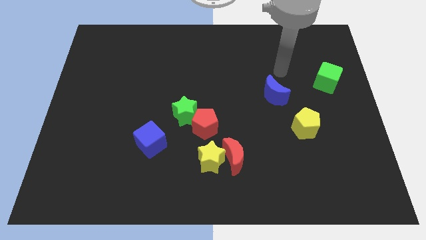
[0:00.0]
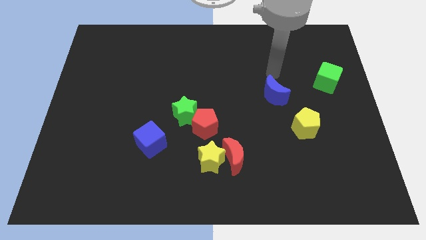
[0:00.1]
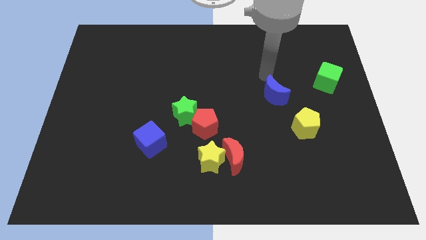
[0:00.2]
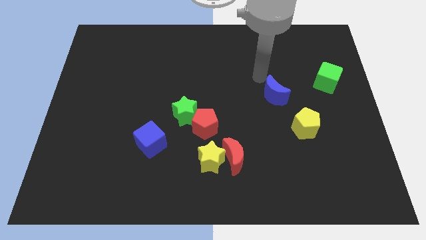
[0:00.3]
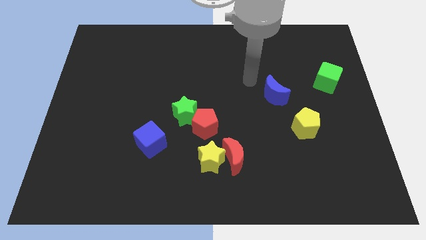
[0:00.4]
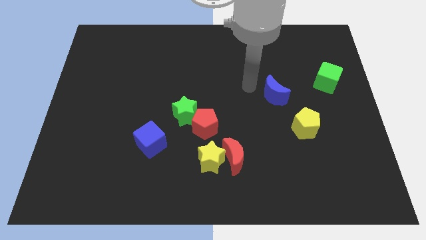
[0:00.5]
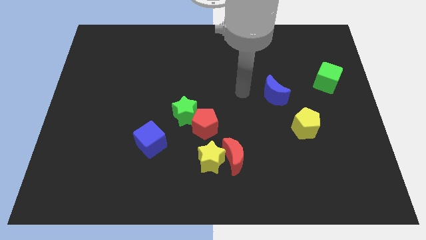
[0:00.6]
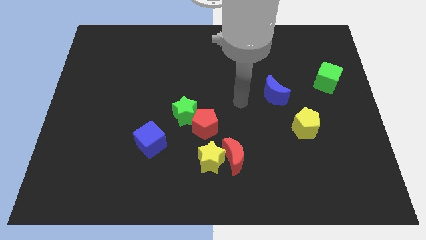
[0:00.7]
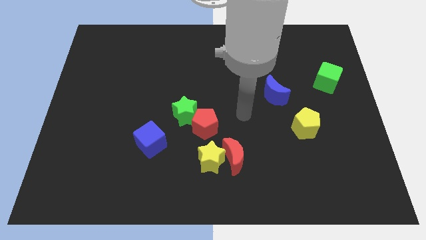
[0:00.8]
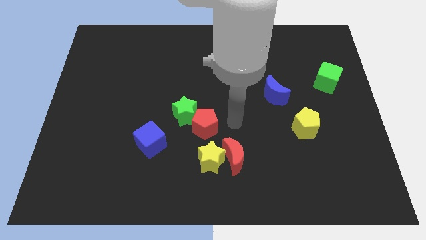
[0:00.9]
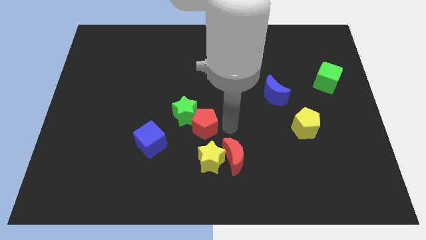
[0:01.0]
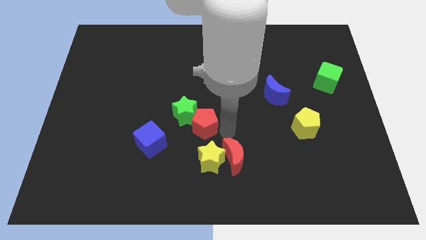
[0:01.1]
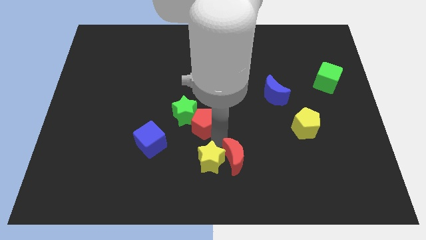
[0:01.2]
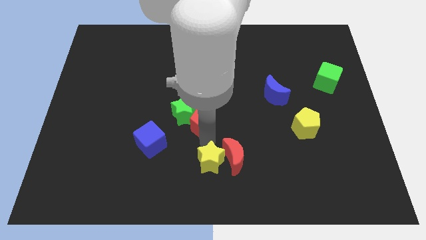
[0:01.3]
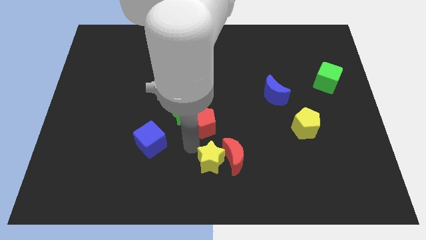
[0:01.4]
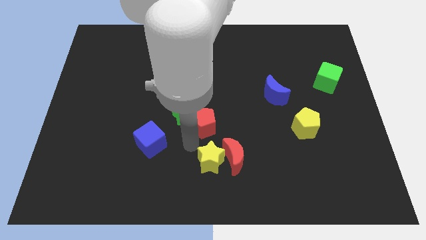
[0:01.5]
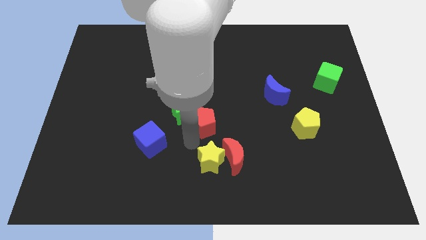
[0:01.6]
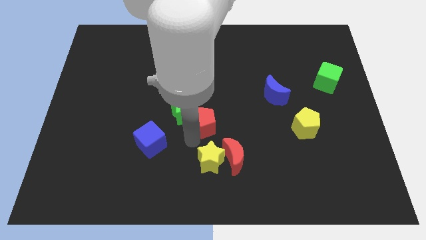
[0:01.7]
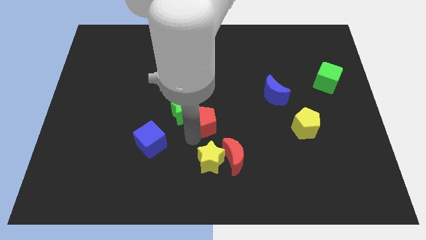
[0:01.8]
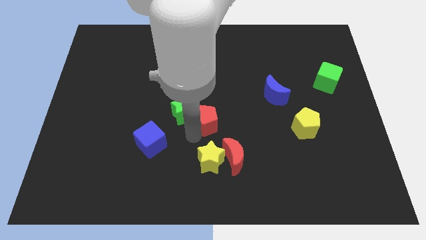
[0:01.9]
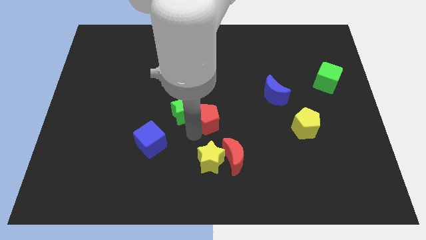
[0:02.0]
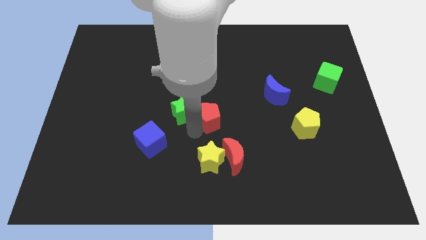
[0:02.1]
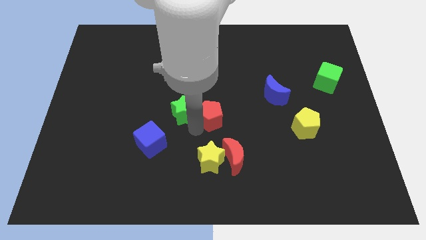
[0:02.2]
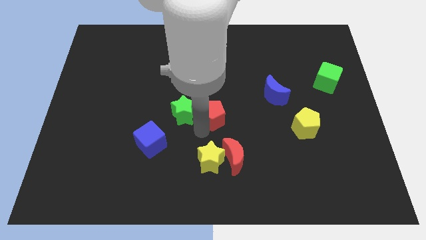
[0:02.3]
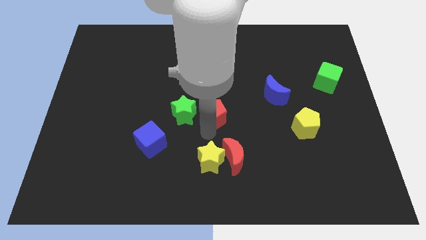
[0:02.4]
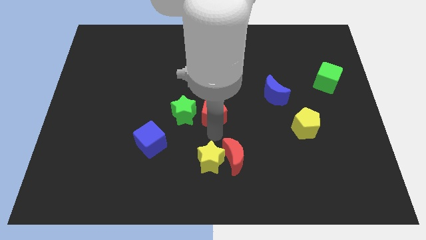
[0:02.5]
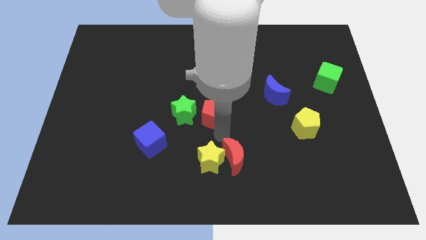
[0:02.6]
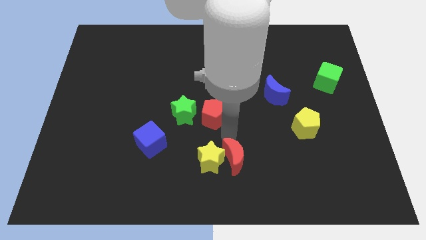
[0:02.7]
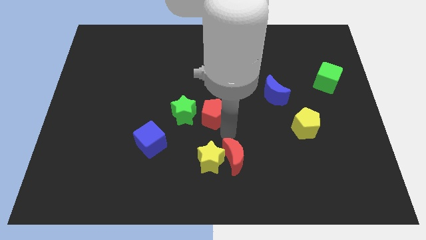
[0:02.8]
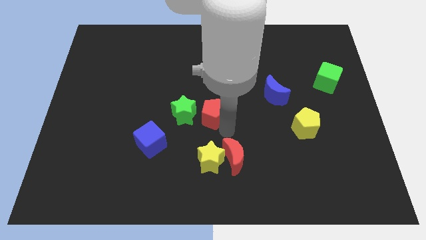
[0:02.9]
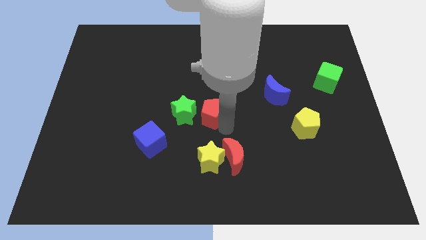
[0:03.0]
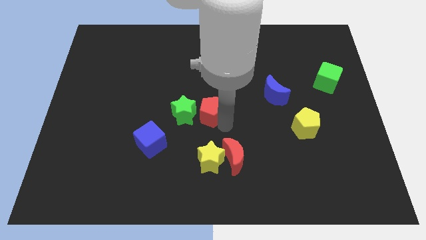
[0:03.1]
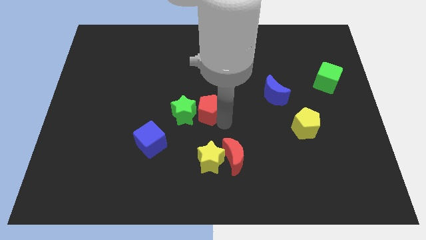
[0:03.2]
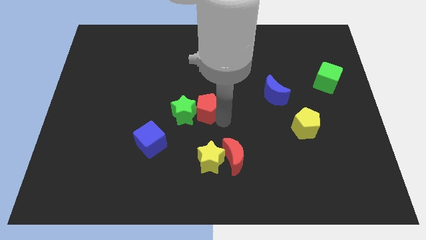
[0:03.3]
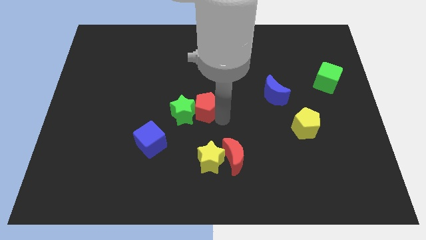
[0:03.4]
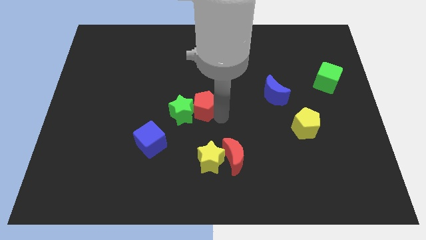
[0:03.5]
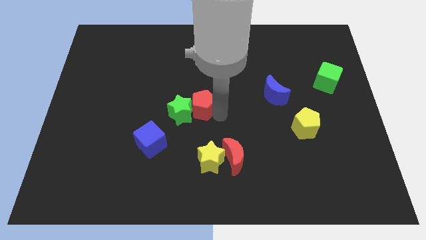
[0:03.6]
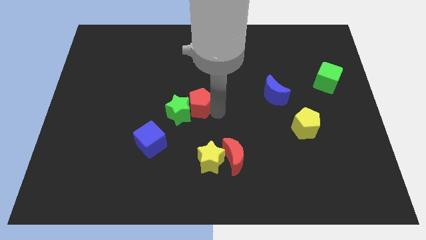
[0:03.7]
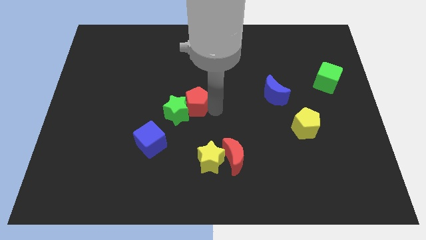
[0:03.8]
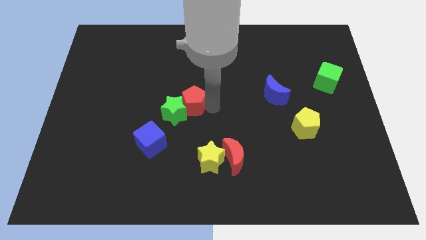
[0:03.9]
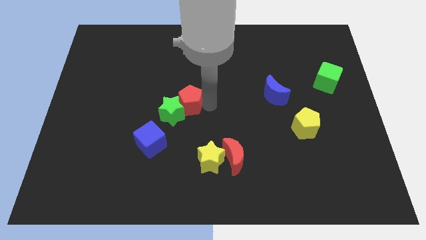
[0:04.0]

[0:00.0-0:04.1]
slightly slide the red pentagon upwards and to the left diagonally

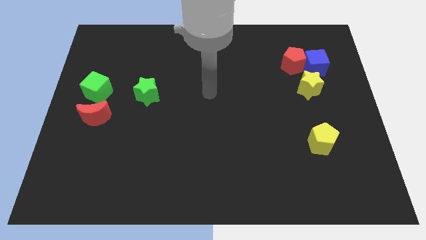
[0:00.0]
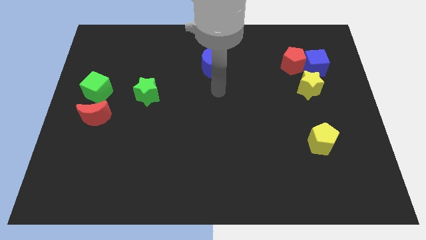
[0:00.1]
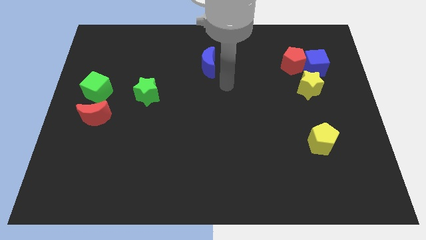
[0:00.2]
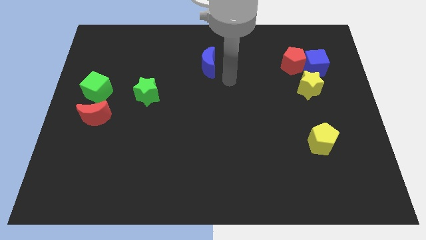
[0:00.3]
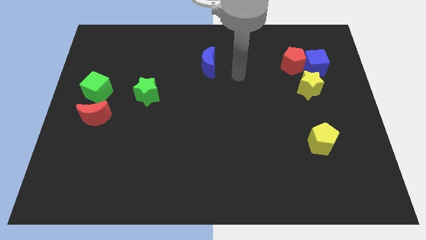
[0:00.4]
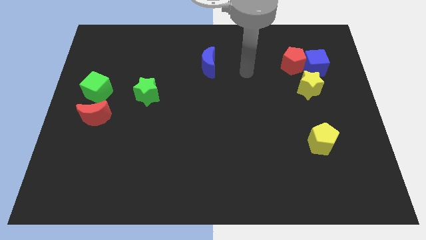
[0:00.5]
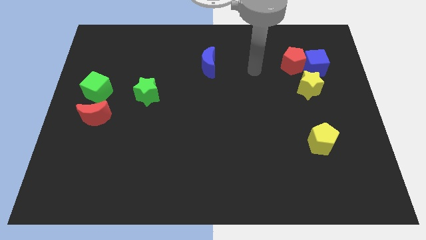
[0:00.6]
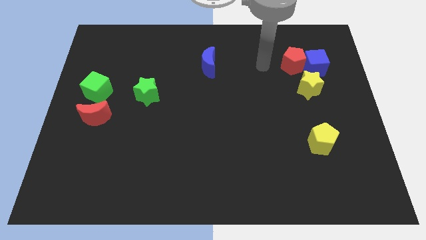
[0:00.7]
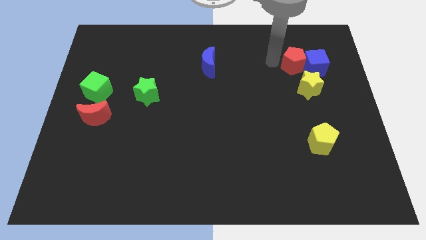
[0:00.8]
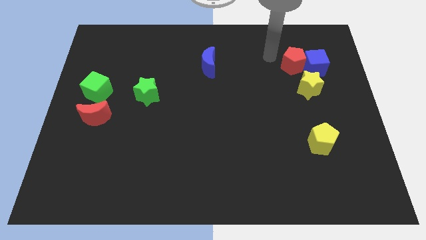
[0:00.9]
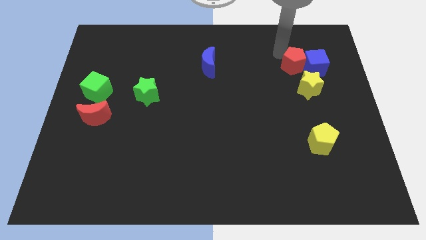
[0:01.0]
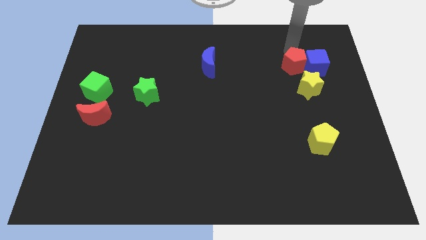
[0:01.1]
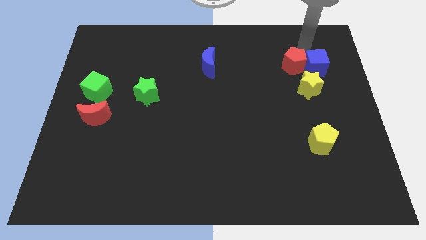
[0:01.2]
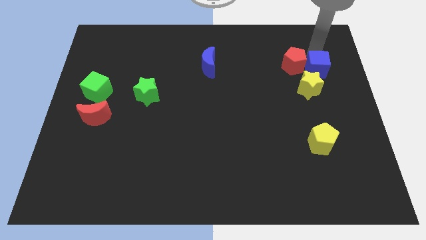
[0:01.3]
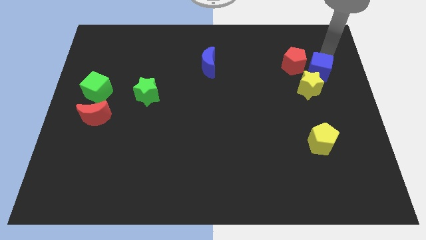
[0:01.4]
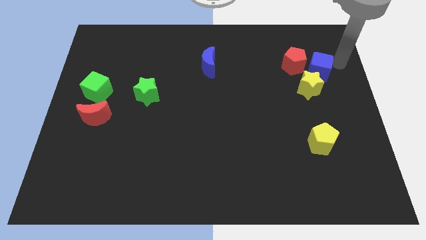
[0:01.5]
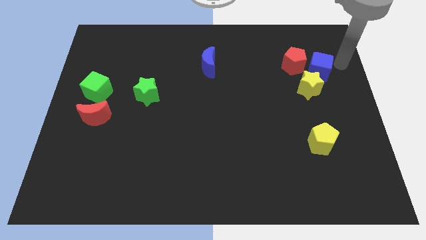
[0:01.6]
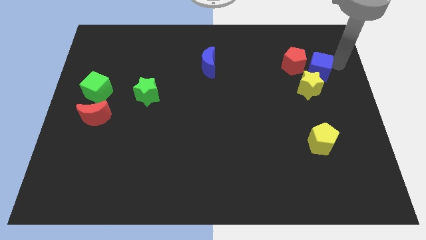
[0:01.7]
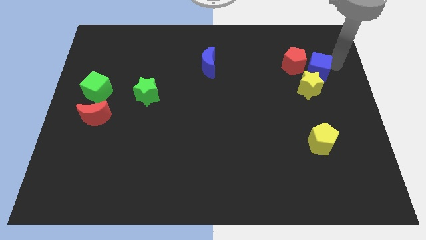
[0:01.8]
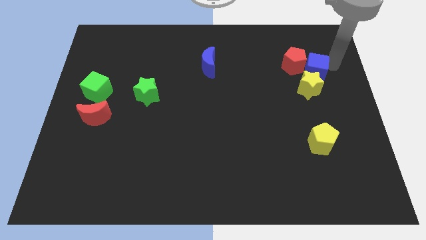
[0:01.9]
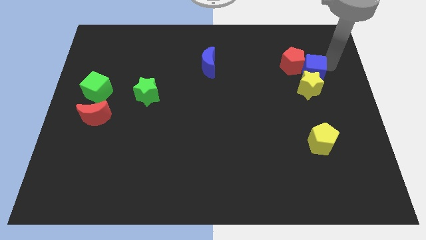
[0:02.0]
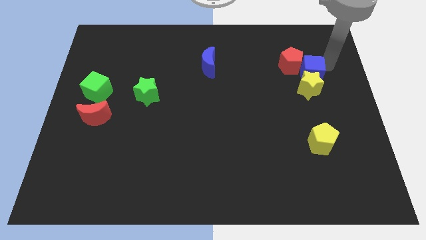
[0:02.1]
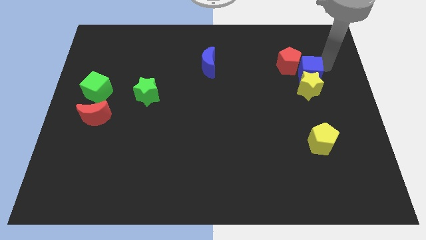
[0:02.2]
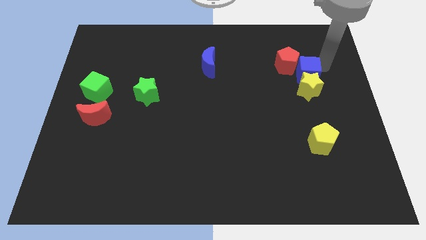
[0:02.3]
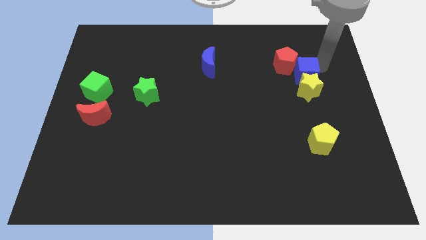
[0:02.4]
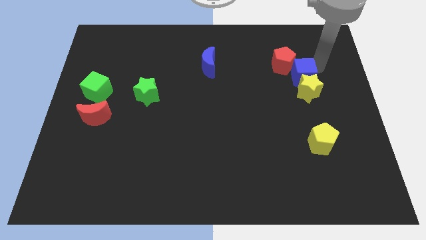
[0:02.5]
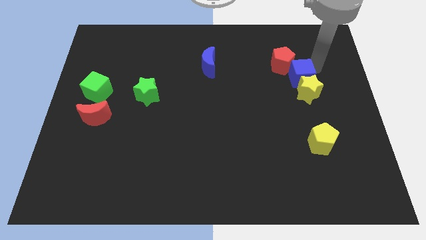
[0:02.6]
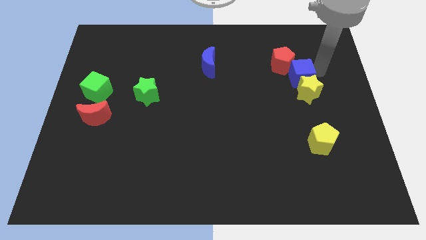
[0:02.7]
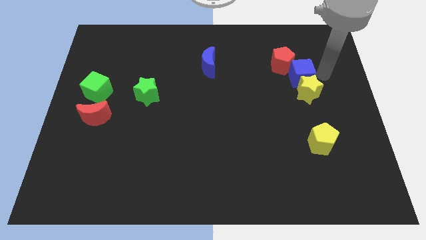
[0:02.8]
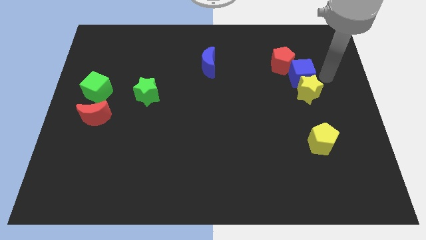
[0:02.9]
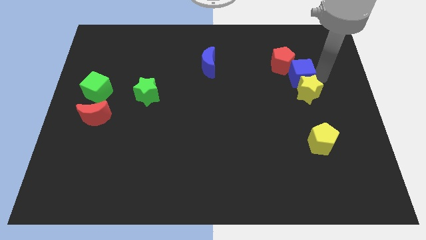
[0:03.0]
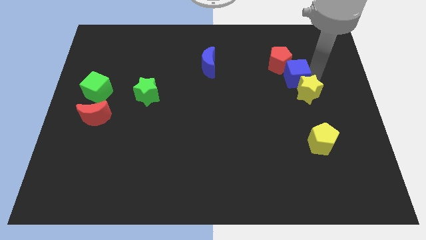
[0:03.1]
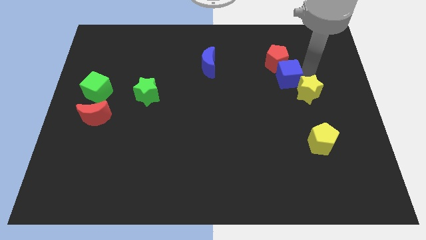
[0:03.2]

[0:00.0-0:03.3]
slightly push the blue cube to the left

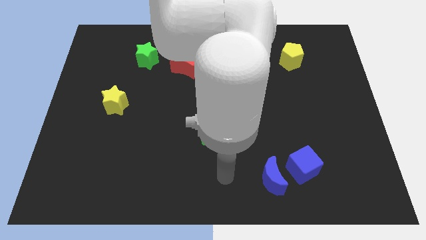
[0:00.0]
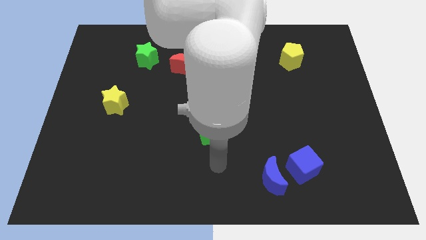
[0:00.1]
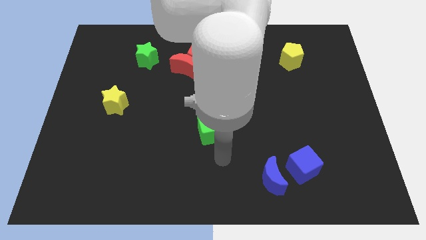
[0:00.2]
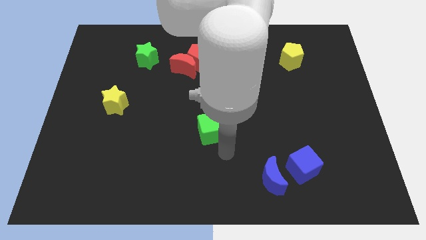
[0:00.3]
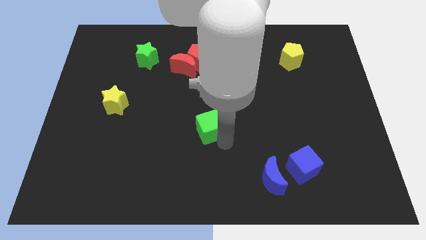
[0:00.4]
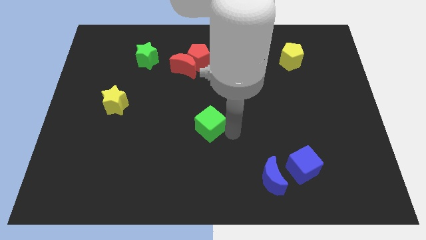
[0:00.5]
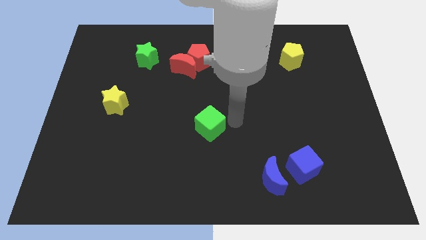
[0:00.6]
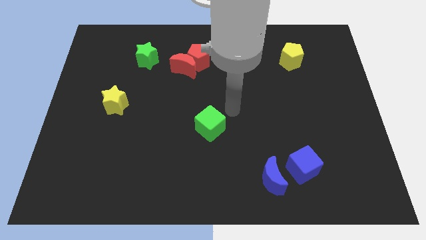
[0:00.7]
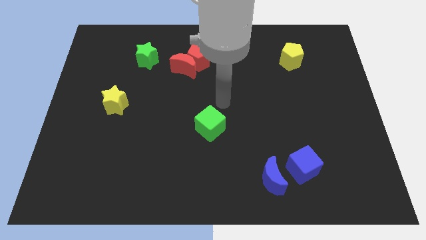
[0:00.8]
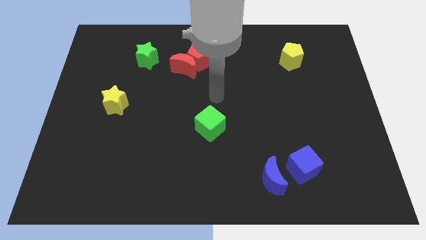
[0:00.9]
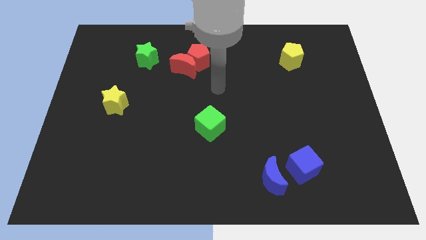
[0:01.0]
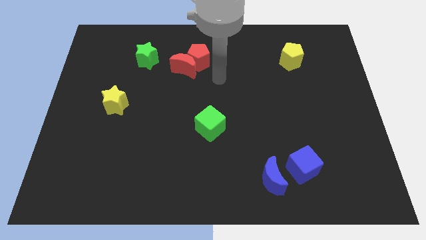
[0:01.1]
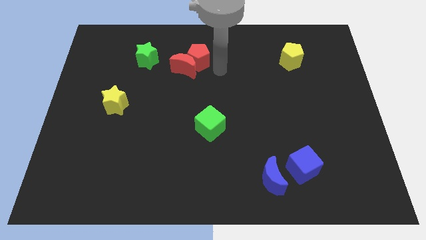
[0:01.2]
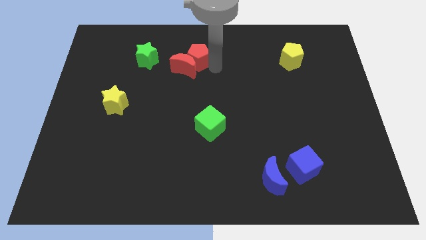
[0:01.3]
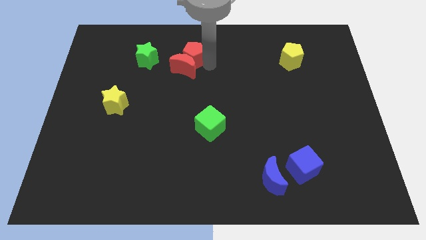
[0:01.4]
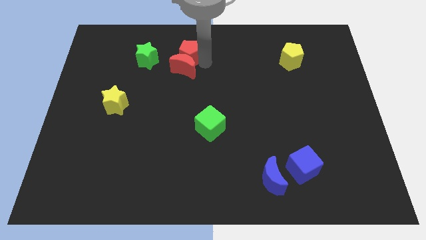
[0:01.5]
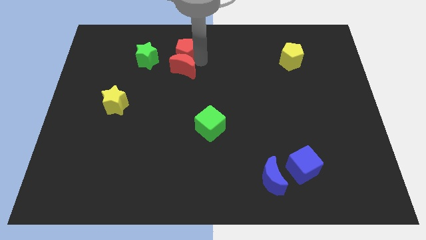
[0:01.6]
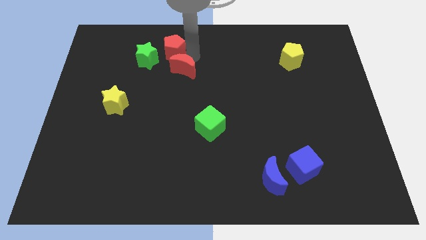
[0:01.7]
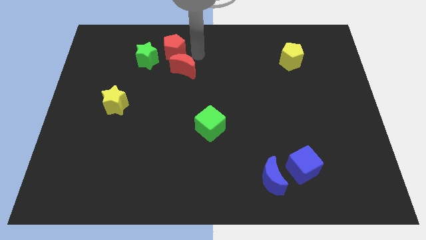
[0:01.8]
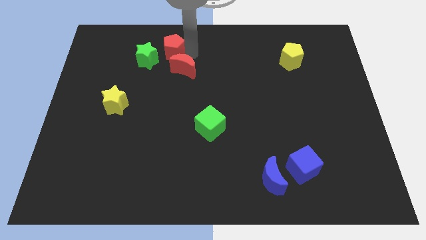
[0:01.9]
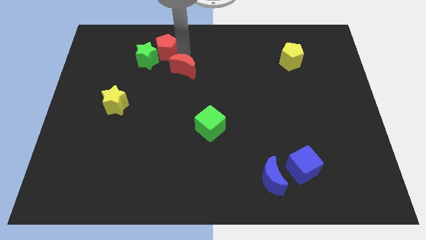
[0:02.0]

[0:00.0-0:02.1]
push the red pentagon a little bit left
